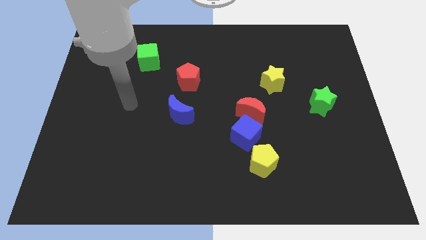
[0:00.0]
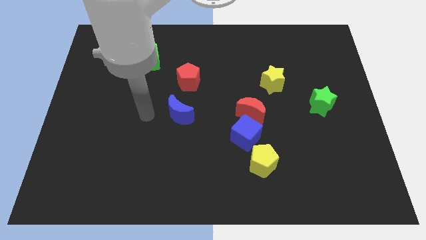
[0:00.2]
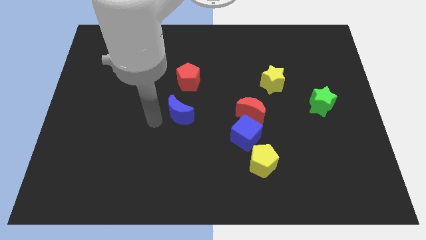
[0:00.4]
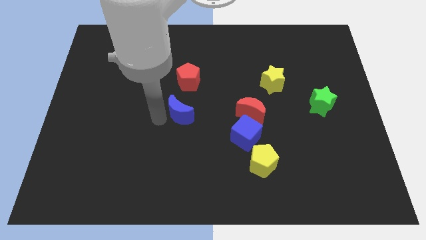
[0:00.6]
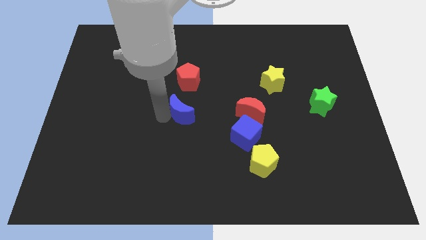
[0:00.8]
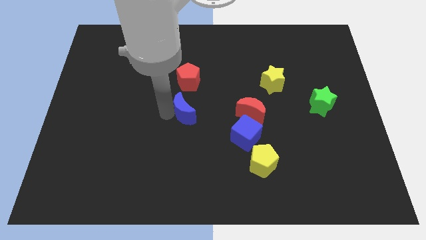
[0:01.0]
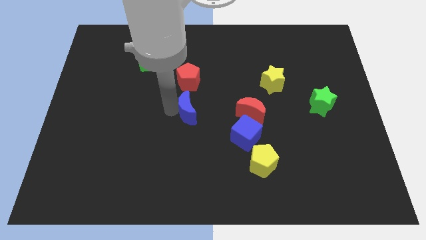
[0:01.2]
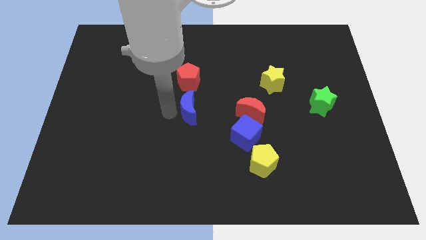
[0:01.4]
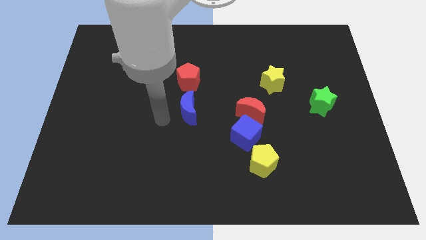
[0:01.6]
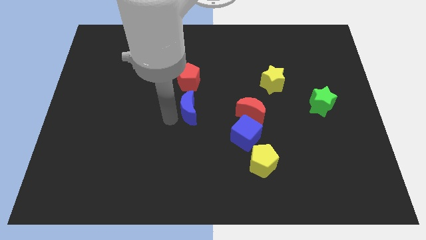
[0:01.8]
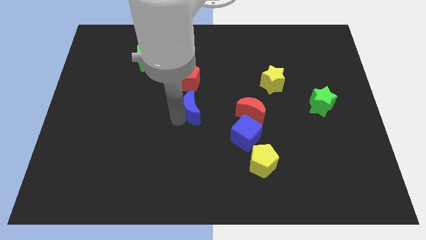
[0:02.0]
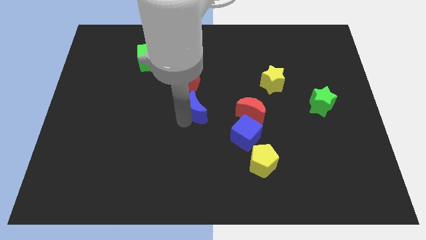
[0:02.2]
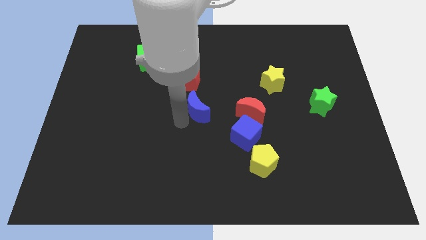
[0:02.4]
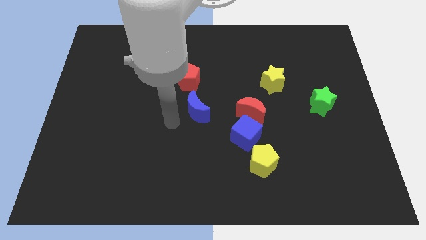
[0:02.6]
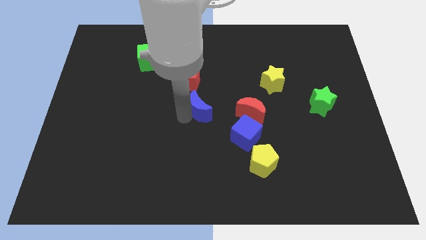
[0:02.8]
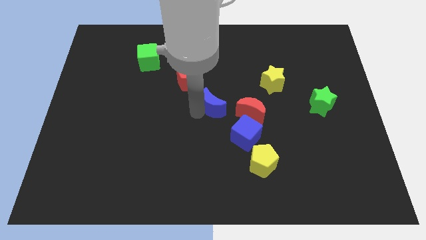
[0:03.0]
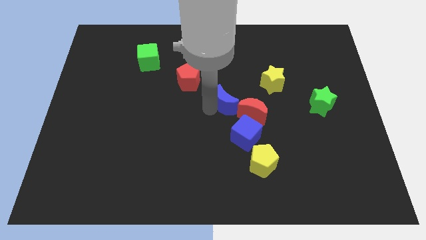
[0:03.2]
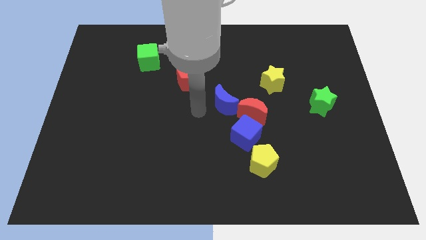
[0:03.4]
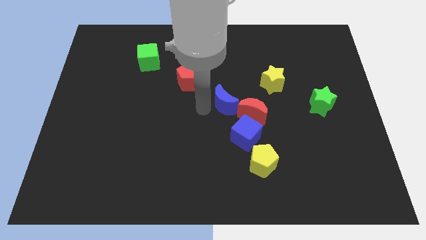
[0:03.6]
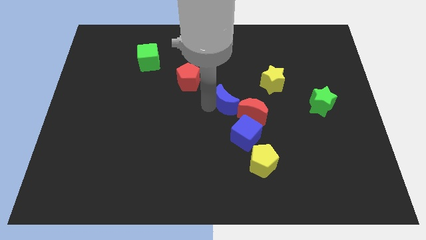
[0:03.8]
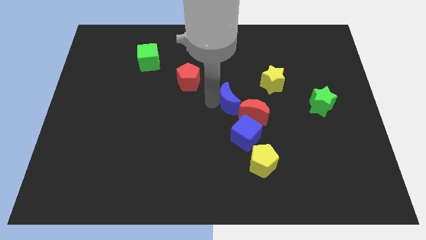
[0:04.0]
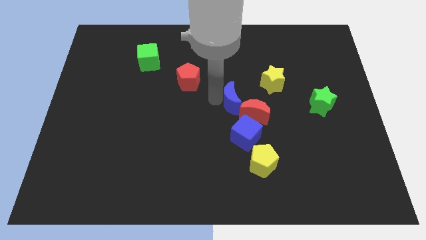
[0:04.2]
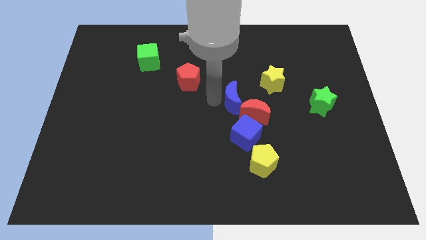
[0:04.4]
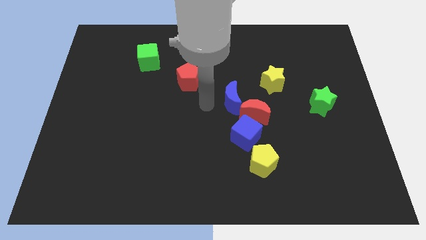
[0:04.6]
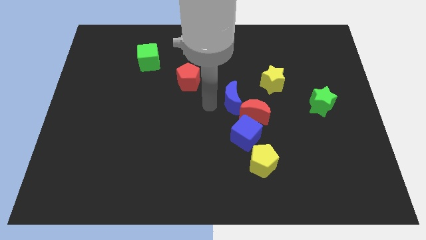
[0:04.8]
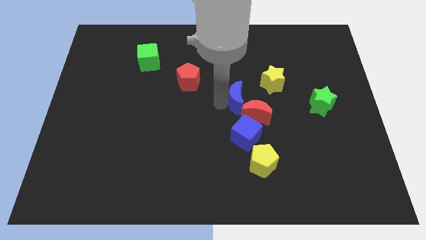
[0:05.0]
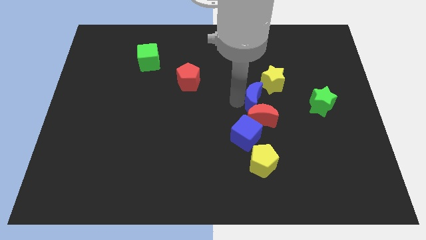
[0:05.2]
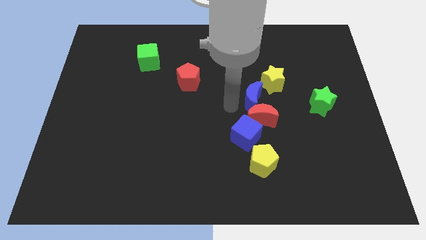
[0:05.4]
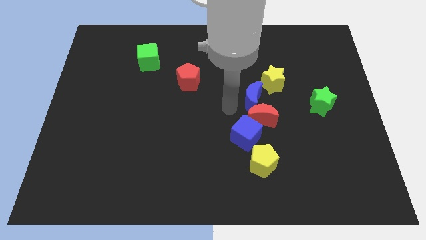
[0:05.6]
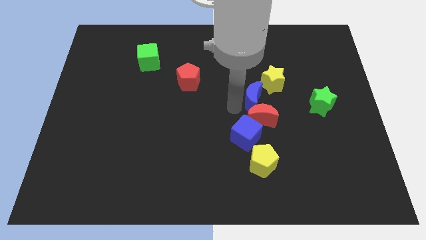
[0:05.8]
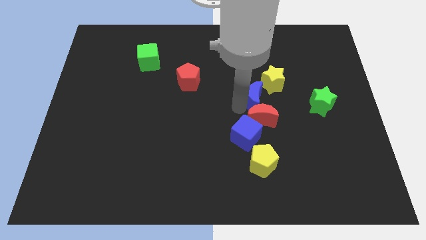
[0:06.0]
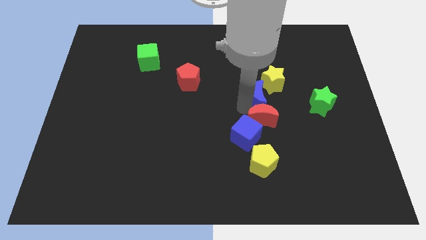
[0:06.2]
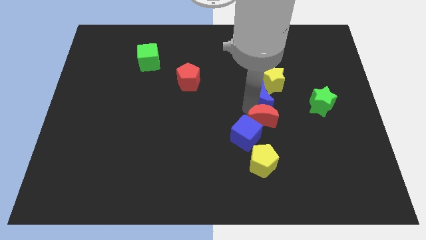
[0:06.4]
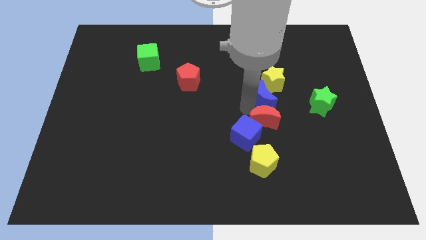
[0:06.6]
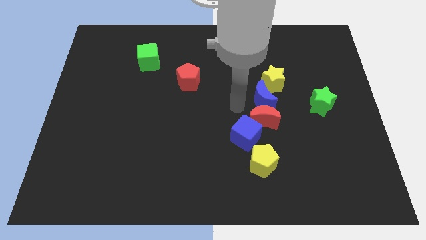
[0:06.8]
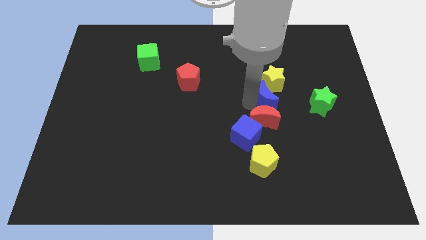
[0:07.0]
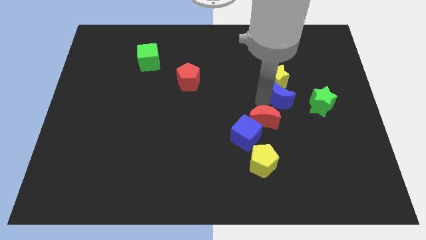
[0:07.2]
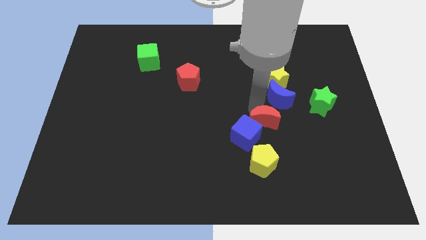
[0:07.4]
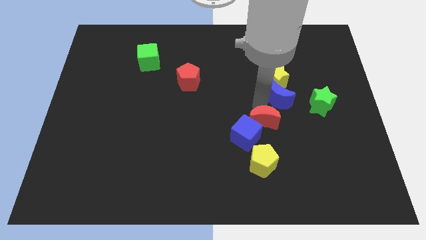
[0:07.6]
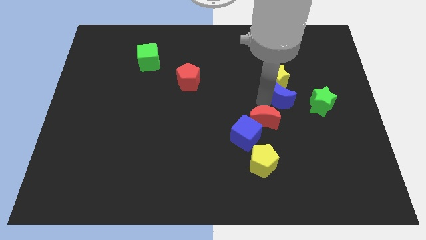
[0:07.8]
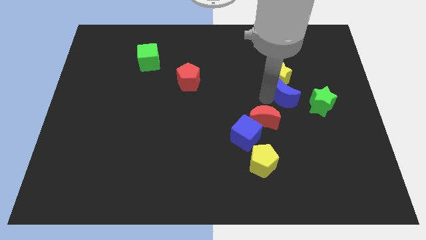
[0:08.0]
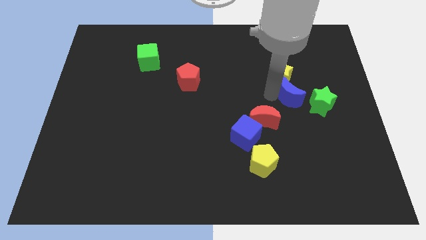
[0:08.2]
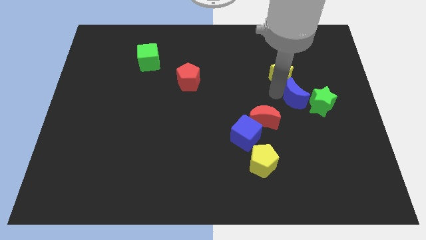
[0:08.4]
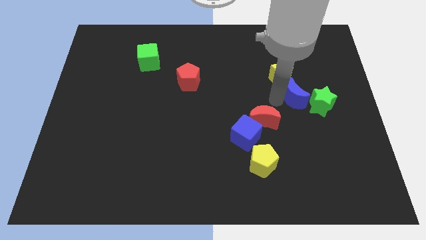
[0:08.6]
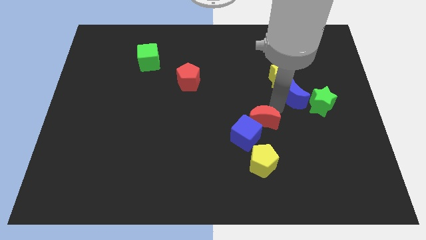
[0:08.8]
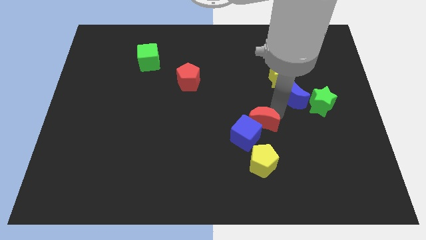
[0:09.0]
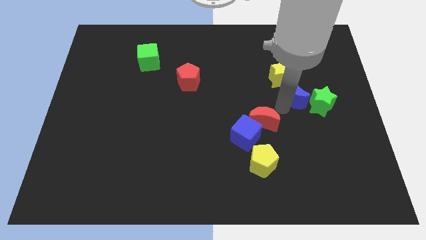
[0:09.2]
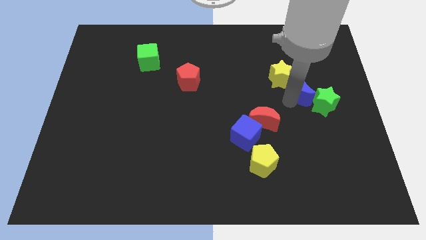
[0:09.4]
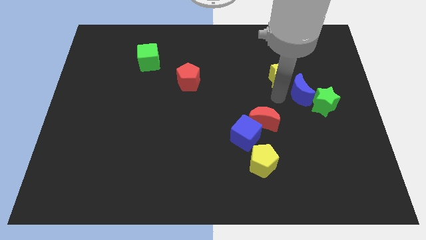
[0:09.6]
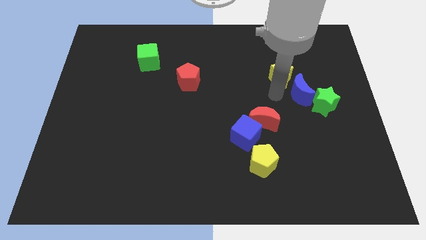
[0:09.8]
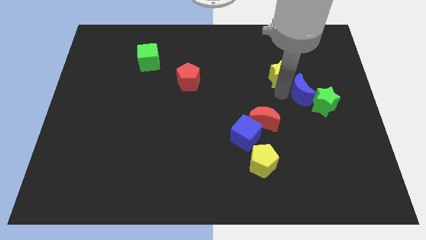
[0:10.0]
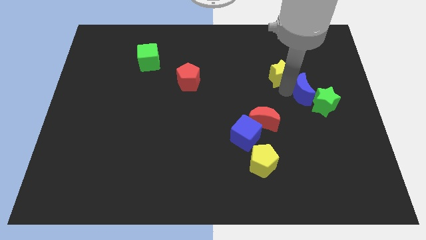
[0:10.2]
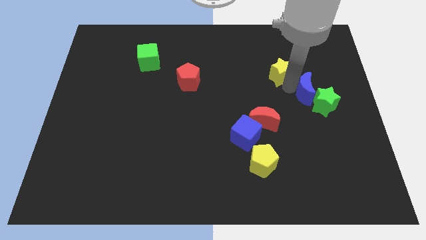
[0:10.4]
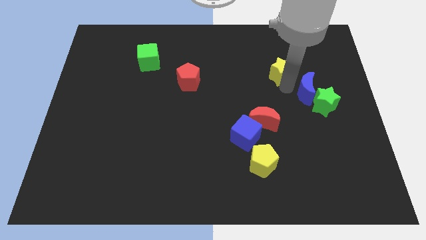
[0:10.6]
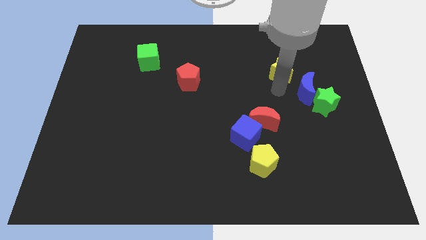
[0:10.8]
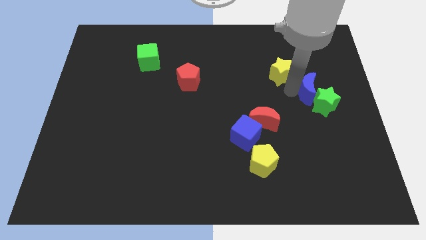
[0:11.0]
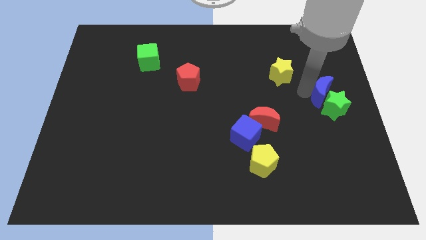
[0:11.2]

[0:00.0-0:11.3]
slide the blue moon to the right side
